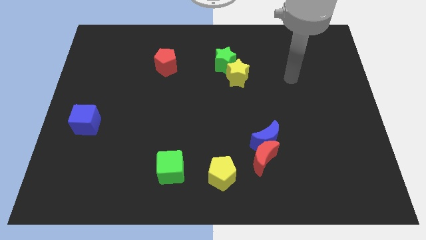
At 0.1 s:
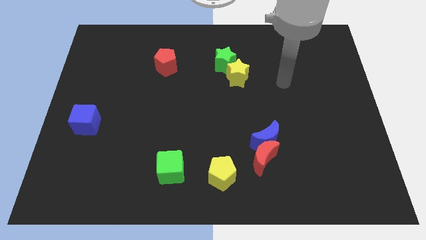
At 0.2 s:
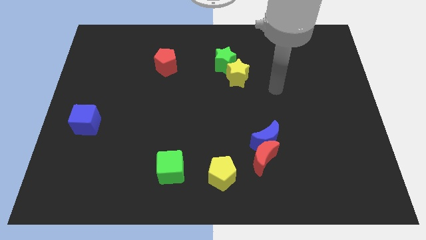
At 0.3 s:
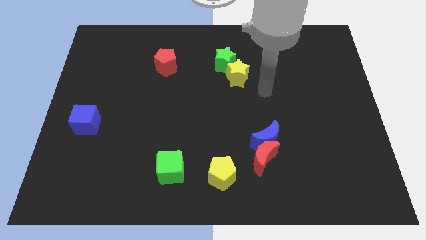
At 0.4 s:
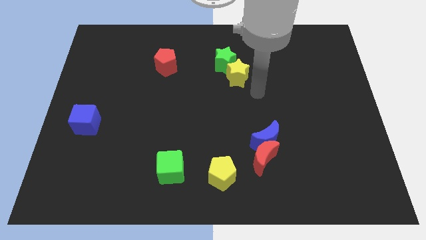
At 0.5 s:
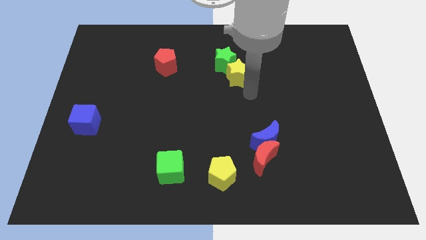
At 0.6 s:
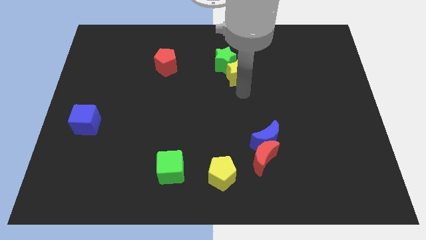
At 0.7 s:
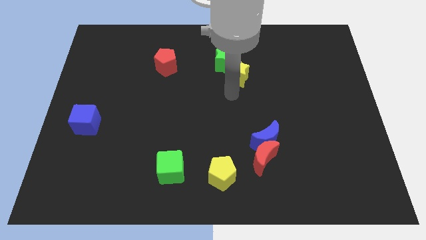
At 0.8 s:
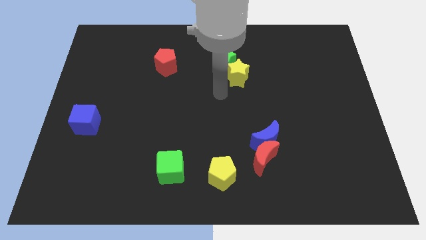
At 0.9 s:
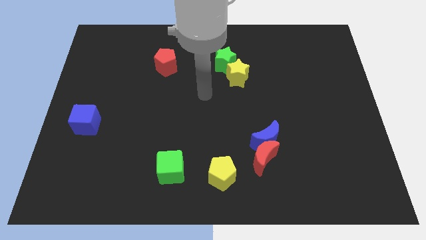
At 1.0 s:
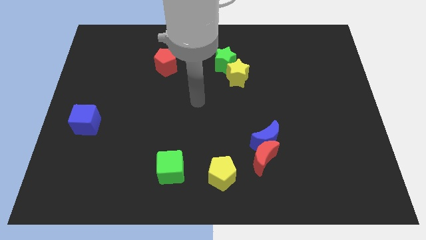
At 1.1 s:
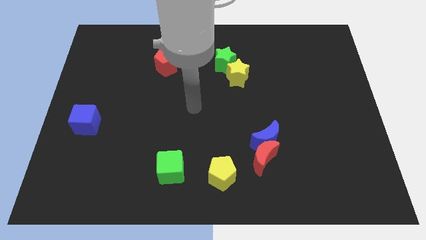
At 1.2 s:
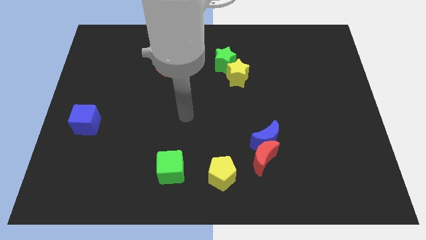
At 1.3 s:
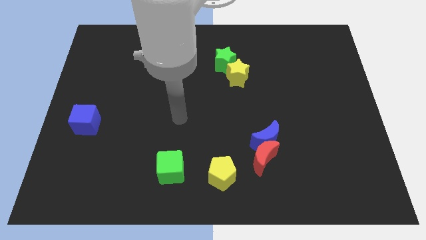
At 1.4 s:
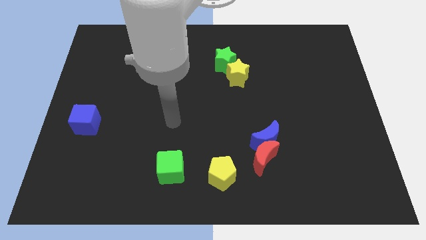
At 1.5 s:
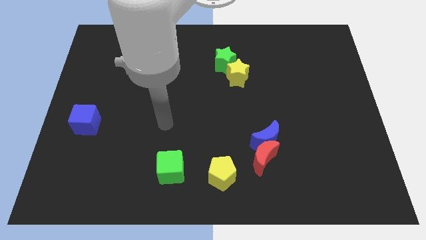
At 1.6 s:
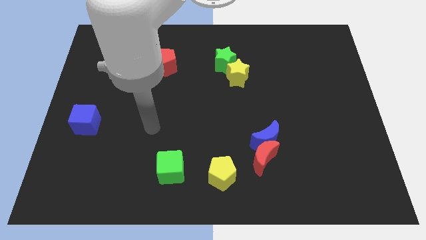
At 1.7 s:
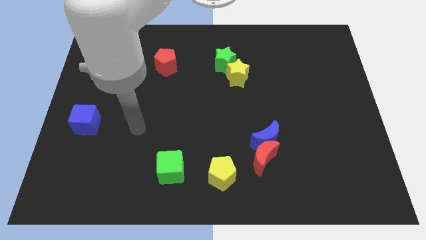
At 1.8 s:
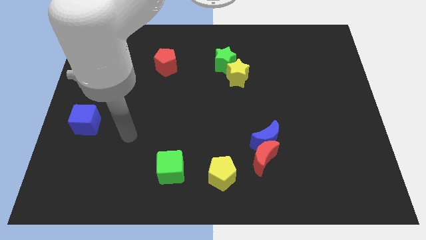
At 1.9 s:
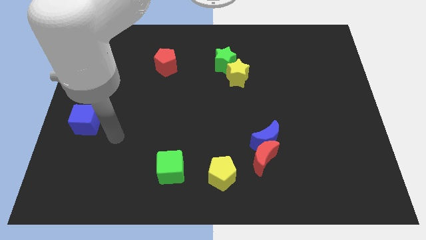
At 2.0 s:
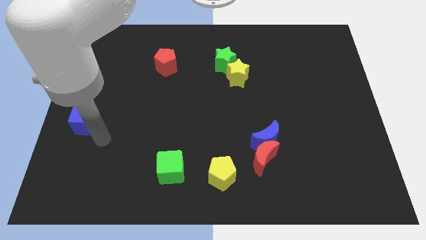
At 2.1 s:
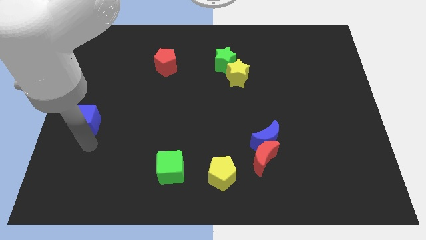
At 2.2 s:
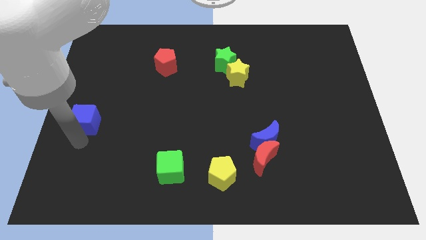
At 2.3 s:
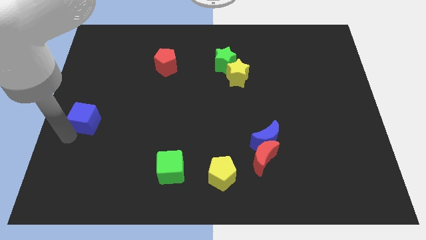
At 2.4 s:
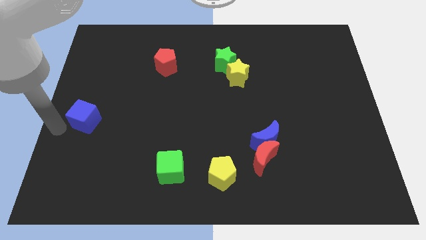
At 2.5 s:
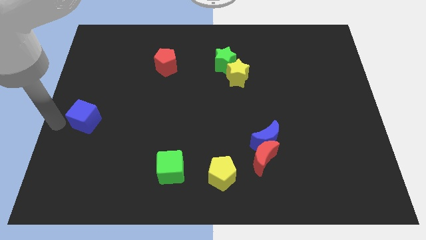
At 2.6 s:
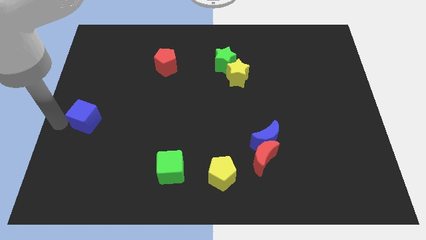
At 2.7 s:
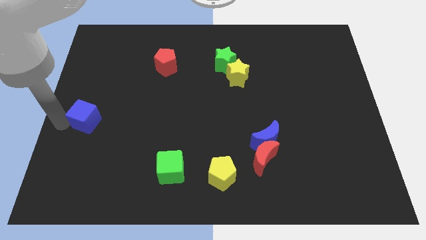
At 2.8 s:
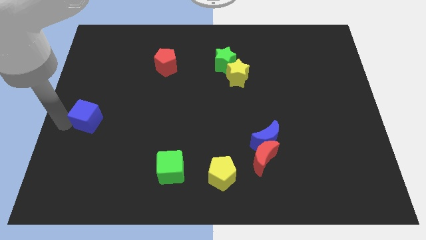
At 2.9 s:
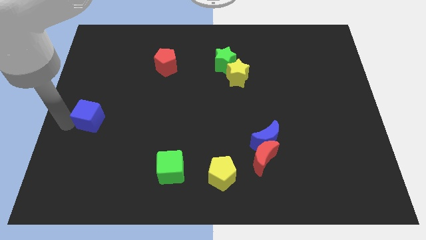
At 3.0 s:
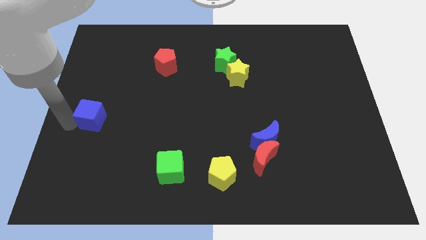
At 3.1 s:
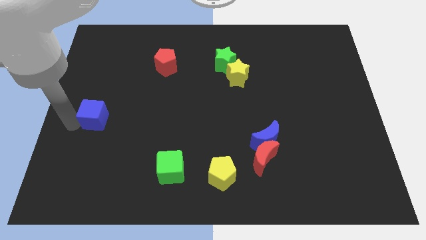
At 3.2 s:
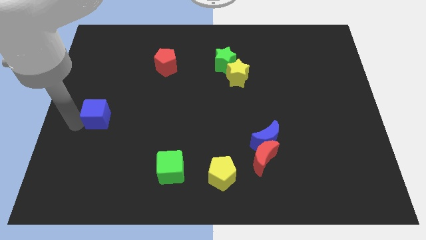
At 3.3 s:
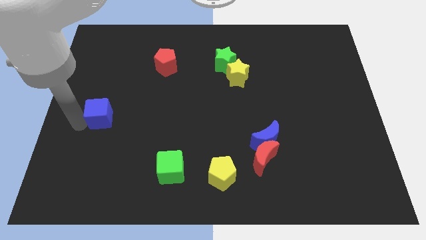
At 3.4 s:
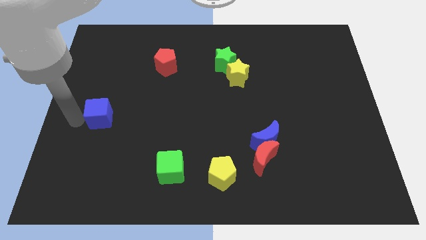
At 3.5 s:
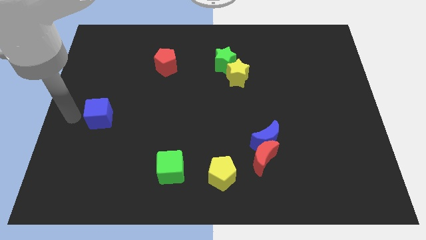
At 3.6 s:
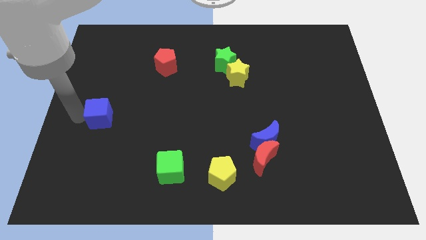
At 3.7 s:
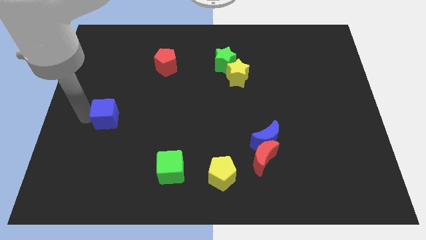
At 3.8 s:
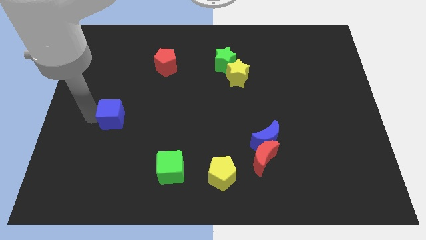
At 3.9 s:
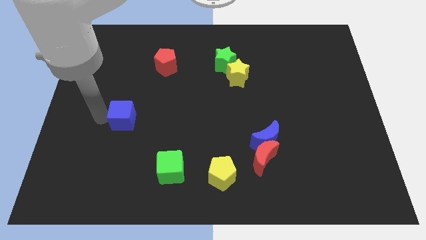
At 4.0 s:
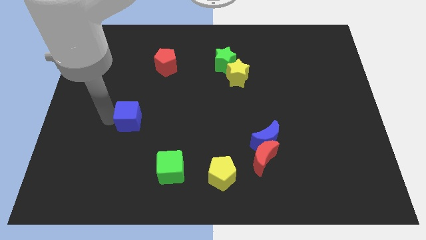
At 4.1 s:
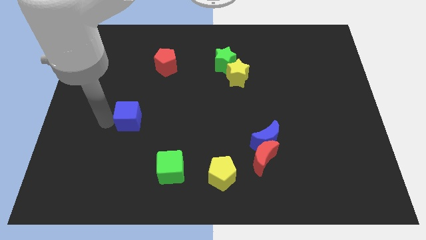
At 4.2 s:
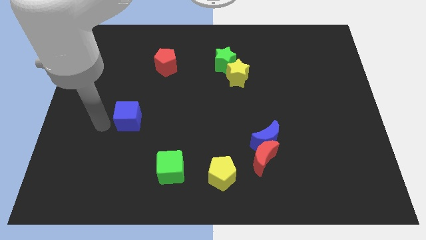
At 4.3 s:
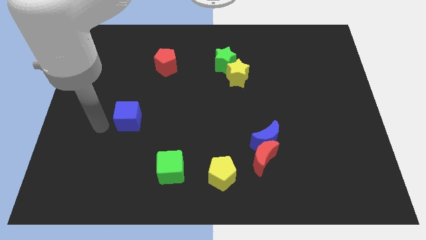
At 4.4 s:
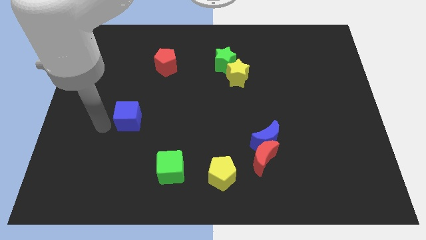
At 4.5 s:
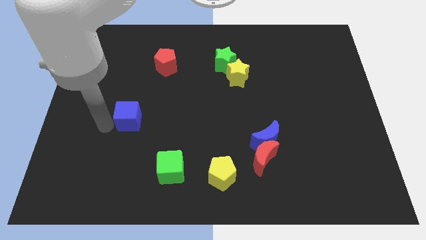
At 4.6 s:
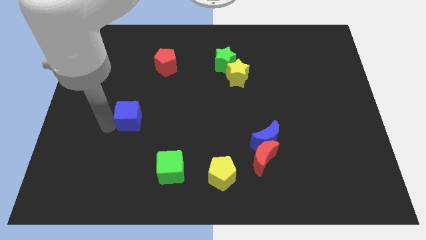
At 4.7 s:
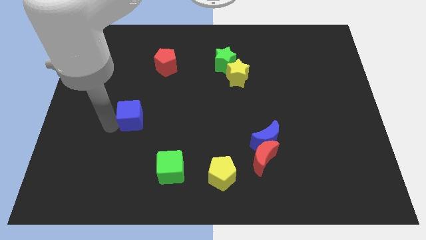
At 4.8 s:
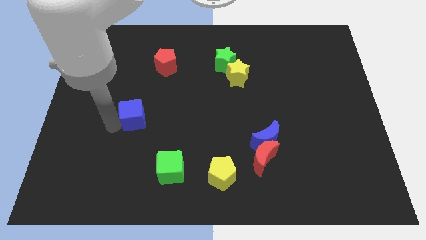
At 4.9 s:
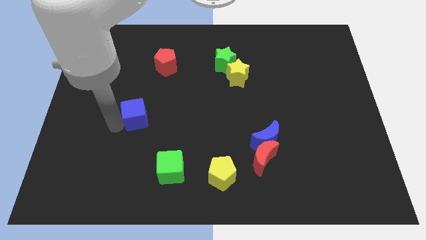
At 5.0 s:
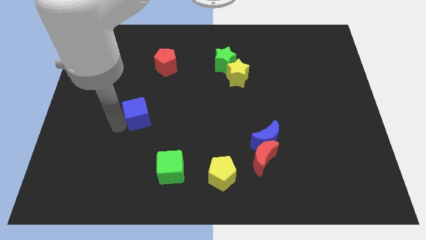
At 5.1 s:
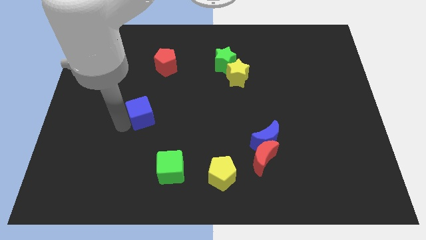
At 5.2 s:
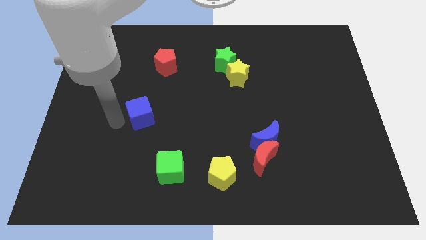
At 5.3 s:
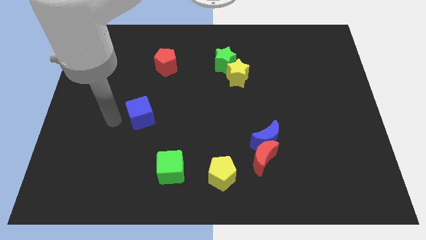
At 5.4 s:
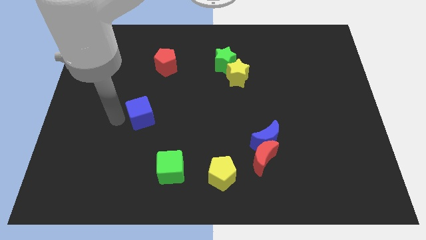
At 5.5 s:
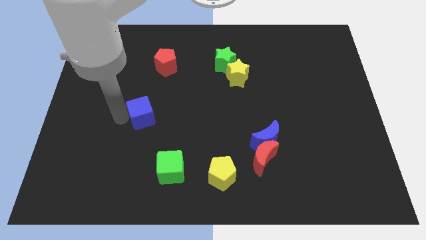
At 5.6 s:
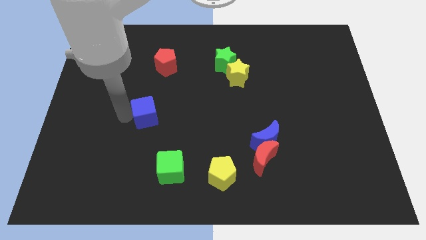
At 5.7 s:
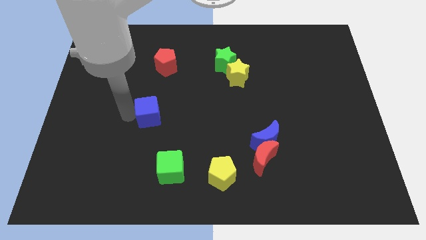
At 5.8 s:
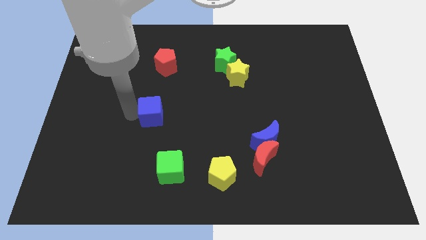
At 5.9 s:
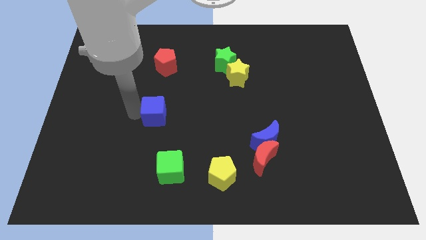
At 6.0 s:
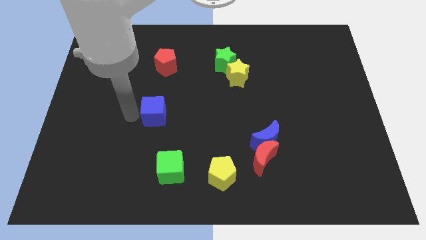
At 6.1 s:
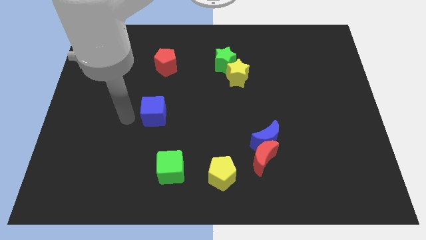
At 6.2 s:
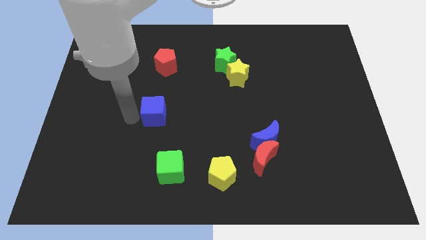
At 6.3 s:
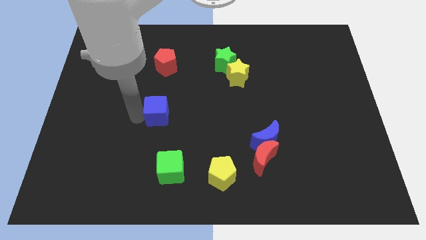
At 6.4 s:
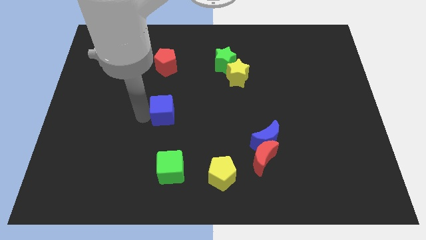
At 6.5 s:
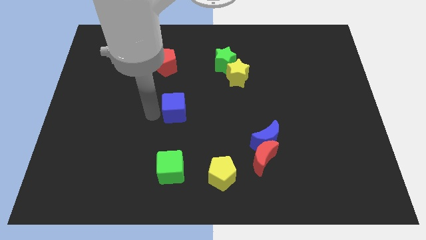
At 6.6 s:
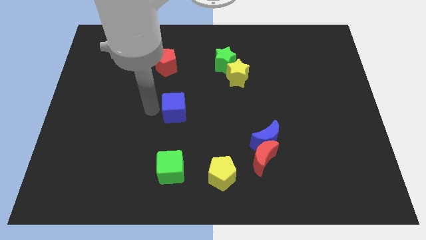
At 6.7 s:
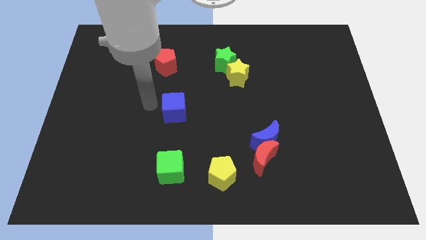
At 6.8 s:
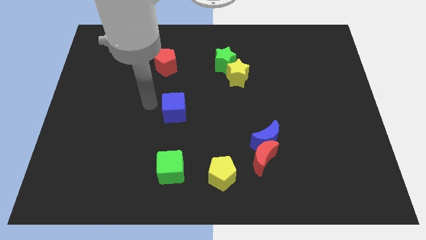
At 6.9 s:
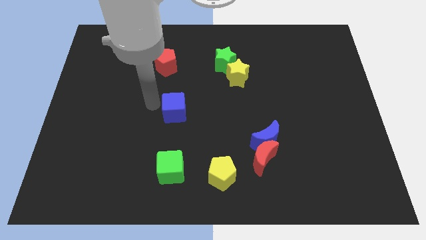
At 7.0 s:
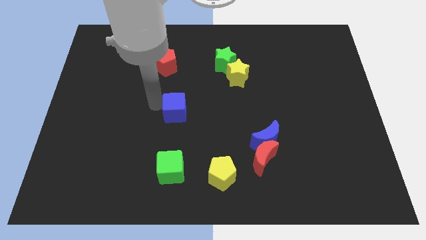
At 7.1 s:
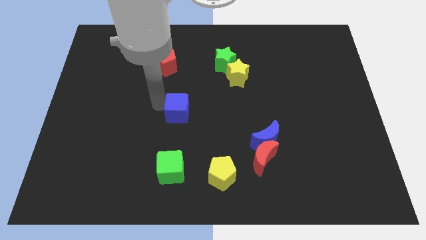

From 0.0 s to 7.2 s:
move the blue cube to the right

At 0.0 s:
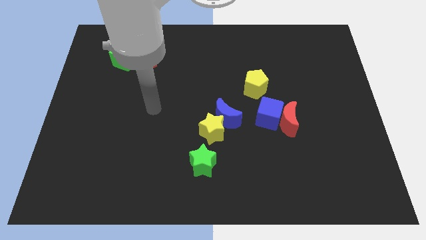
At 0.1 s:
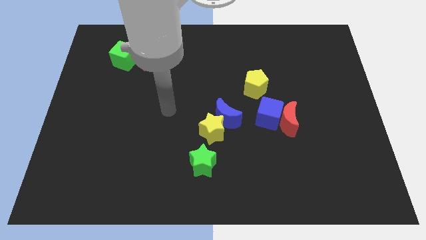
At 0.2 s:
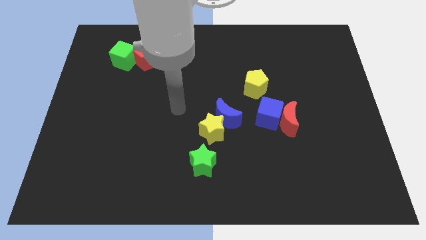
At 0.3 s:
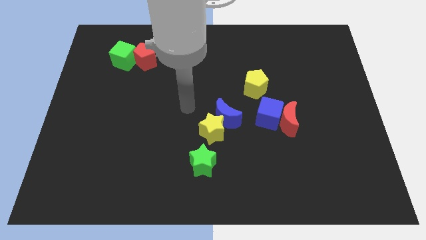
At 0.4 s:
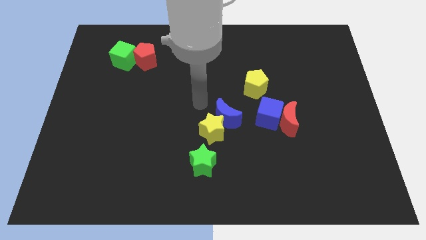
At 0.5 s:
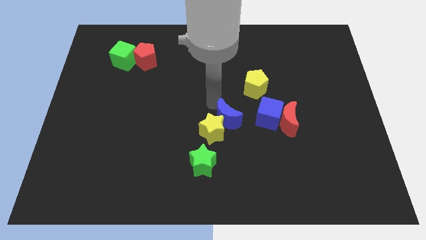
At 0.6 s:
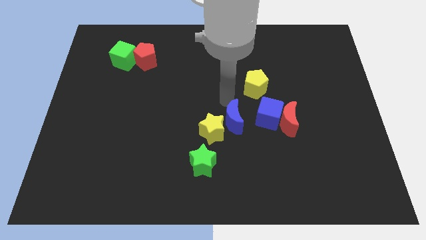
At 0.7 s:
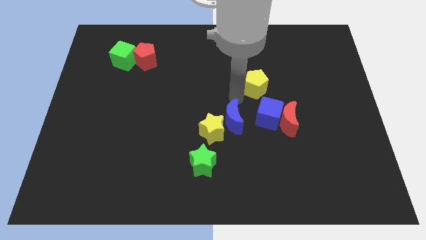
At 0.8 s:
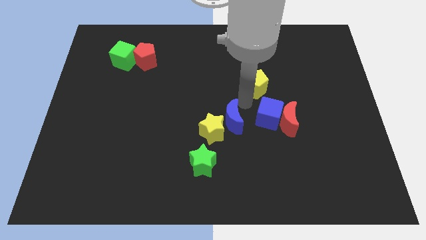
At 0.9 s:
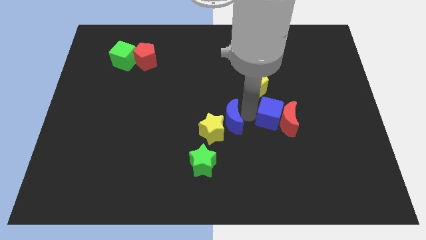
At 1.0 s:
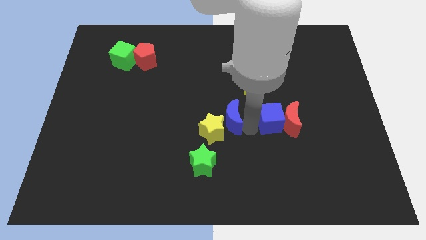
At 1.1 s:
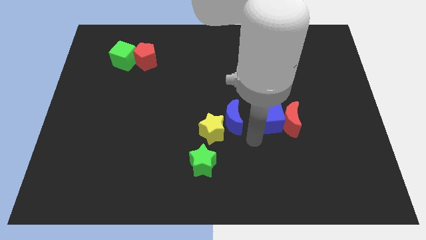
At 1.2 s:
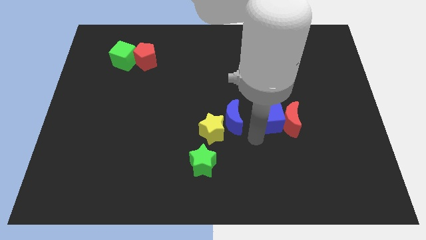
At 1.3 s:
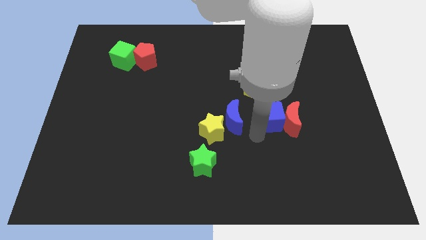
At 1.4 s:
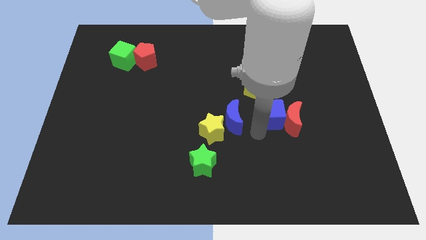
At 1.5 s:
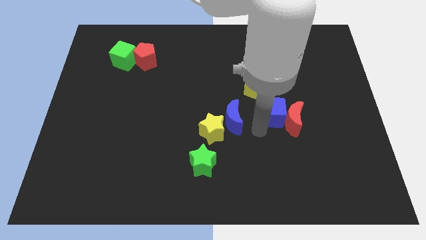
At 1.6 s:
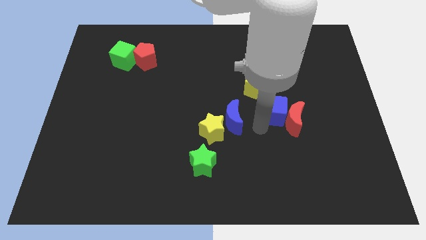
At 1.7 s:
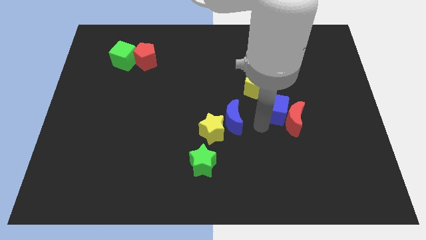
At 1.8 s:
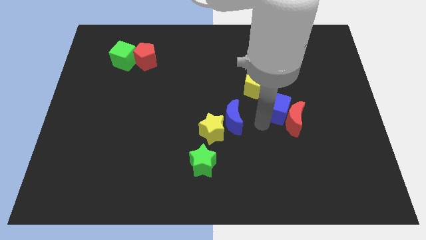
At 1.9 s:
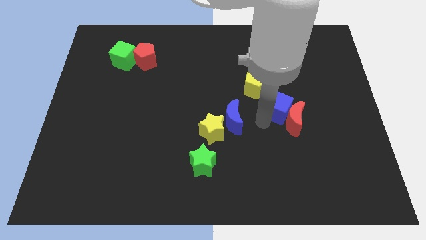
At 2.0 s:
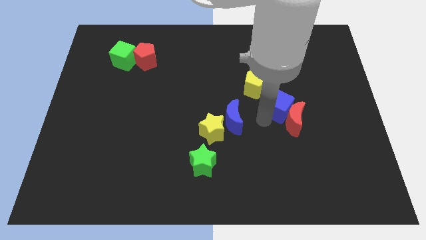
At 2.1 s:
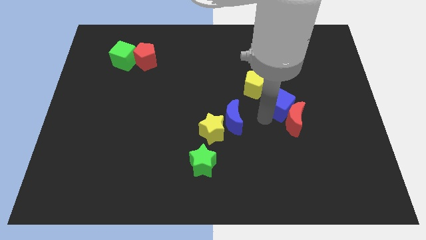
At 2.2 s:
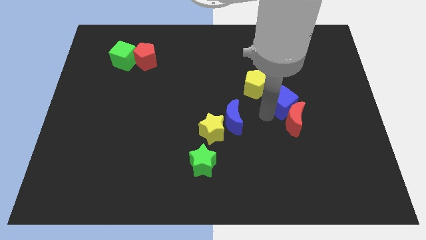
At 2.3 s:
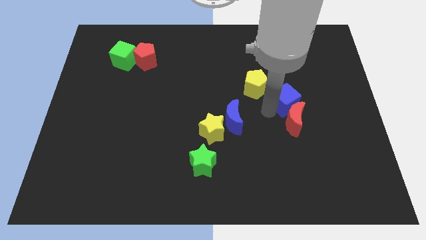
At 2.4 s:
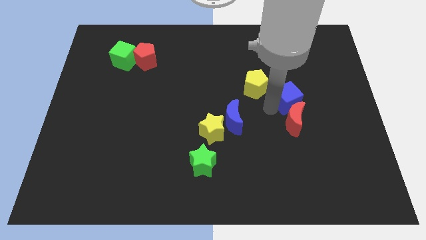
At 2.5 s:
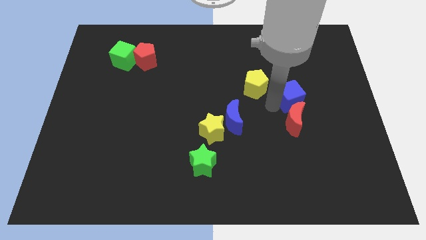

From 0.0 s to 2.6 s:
slightly move the blue cube up and right diagonally
